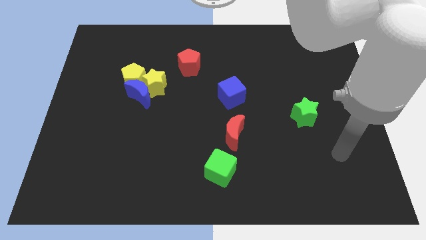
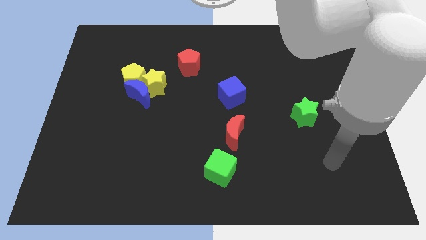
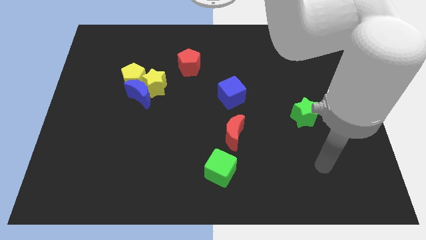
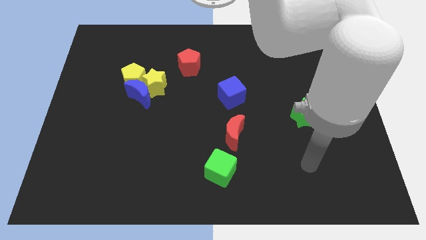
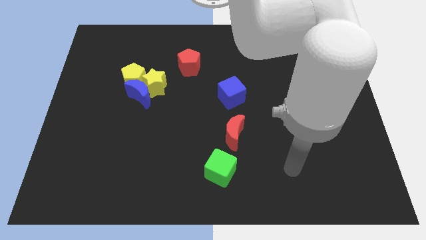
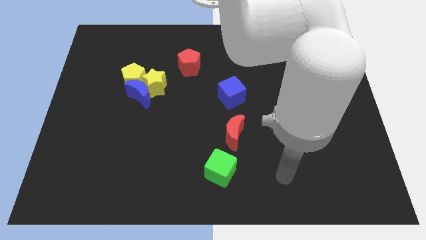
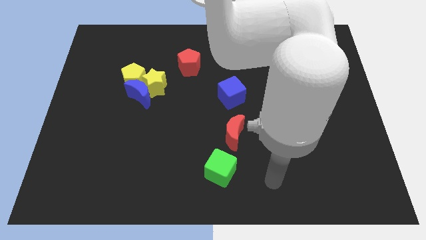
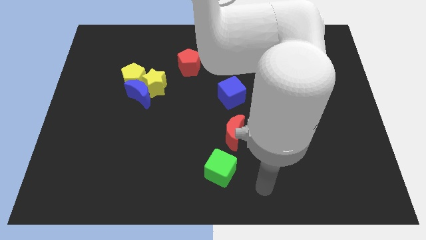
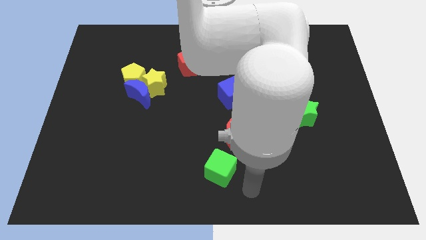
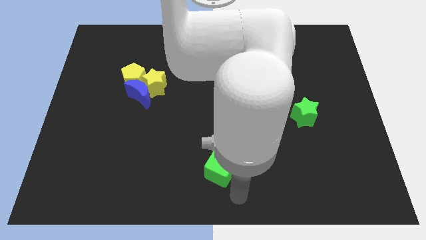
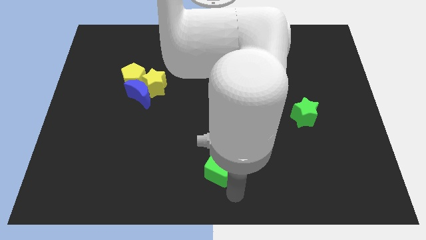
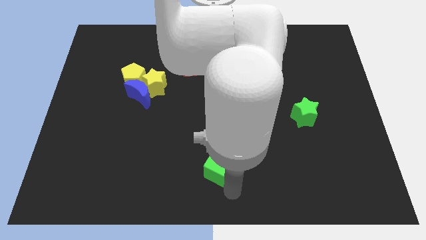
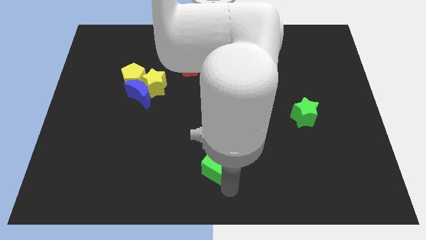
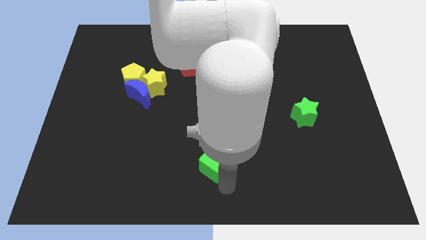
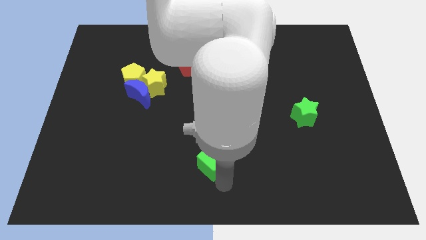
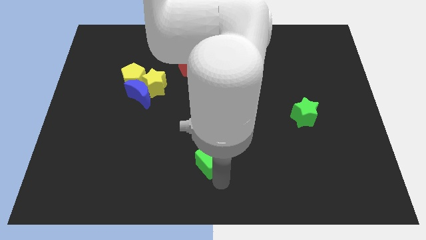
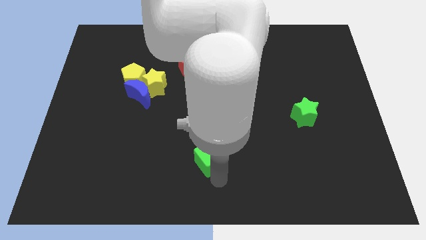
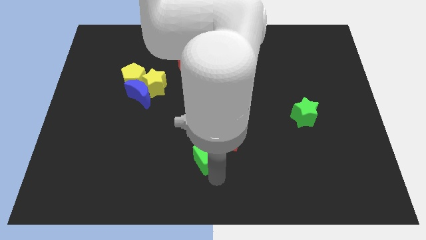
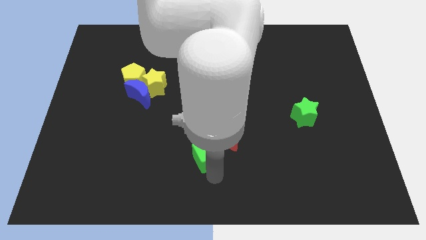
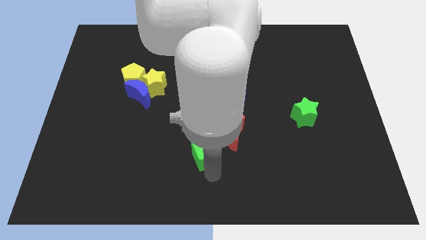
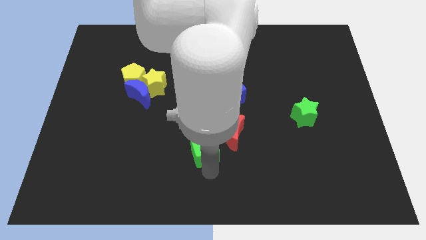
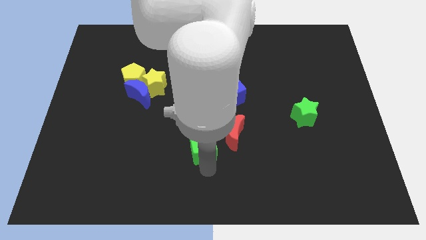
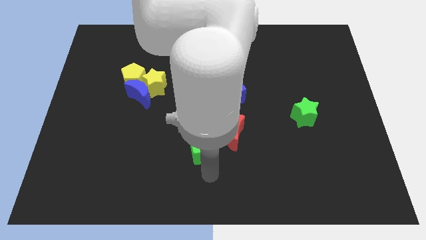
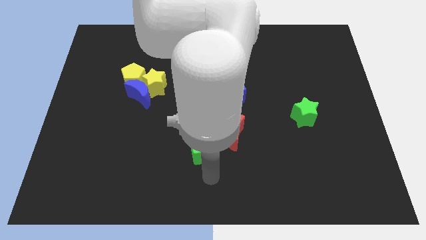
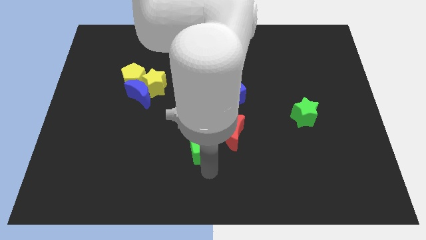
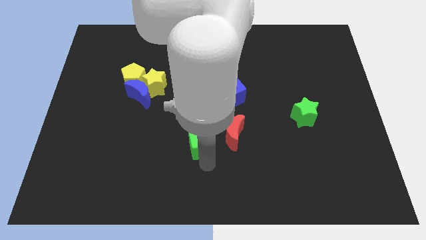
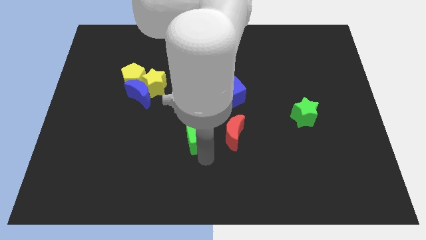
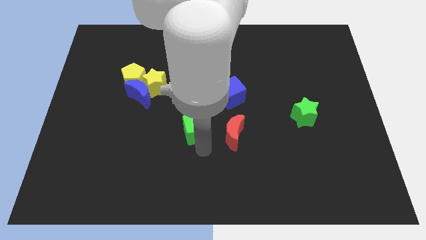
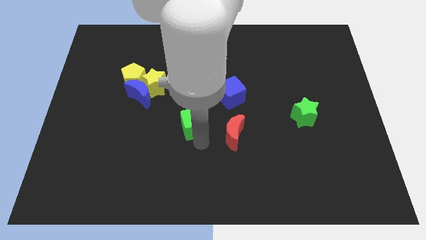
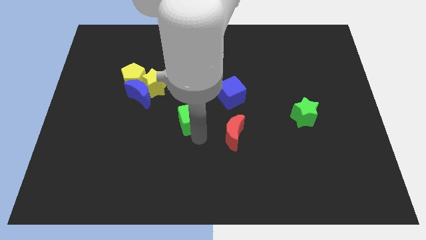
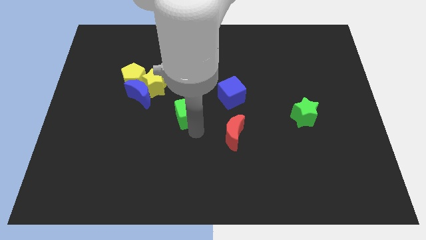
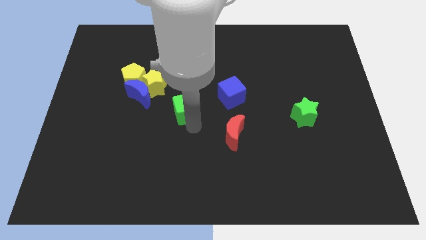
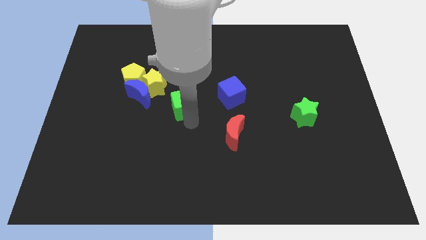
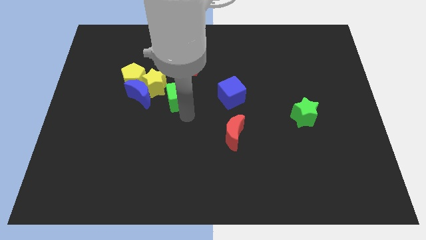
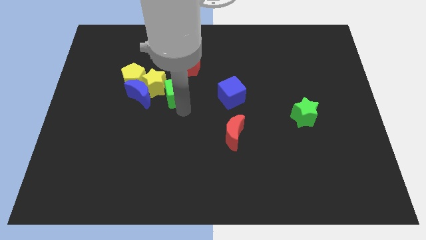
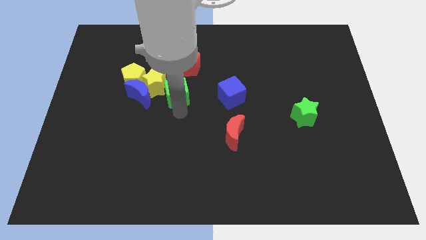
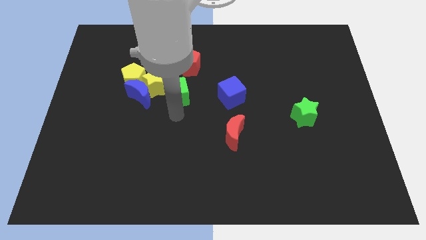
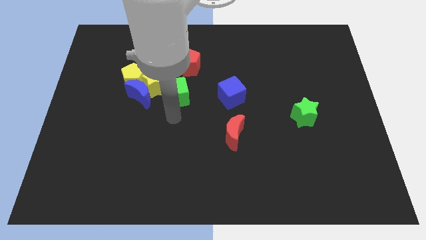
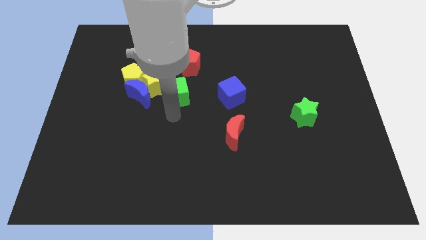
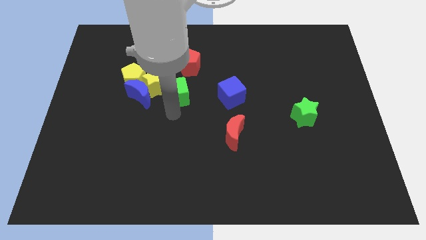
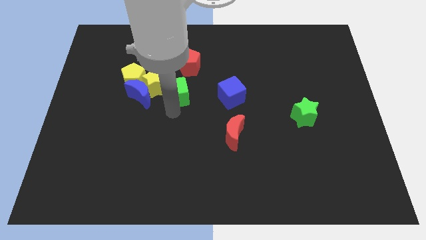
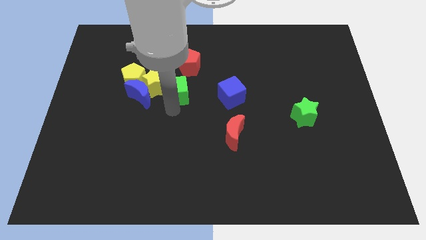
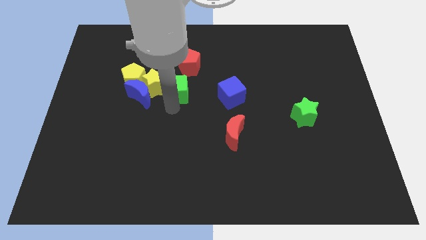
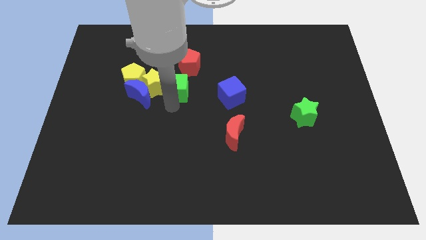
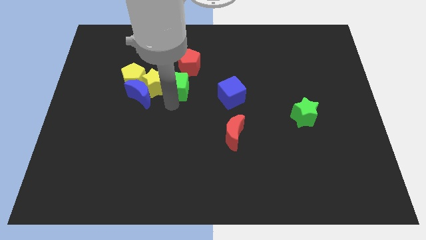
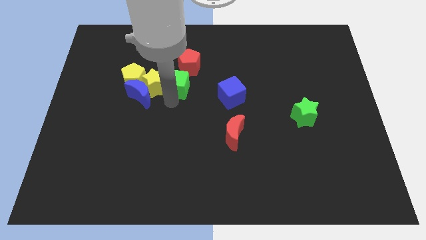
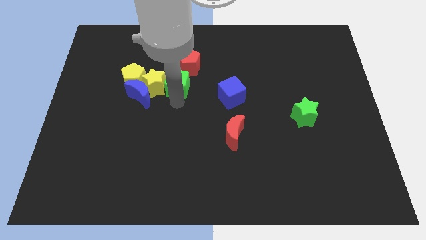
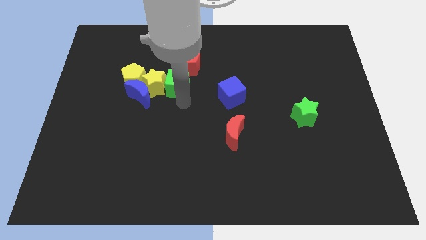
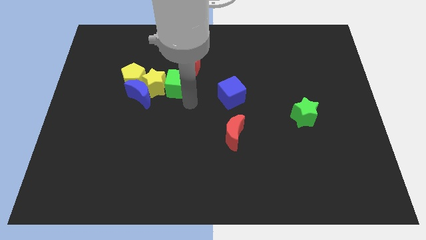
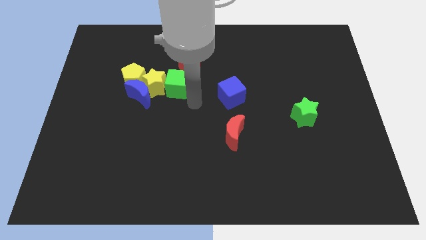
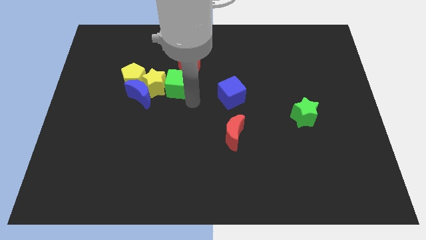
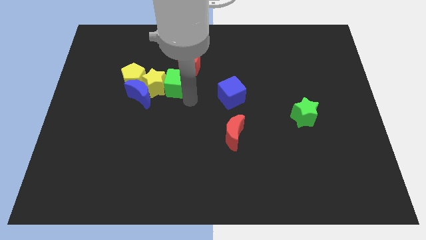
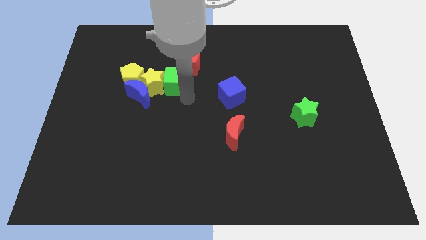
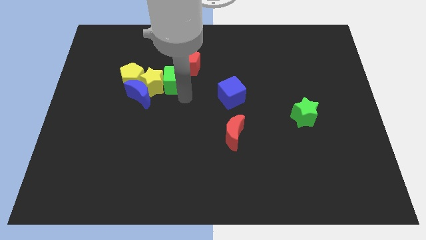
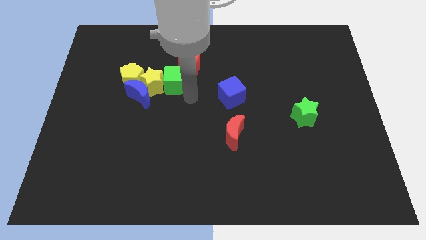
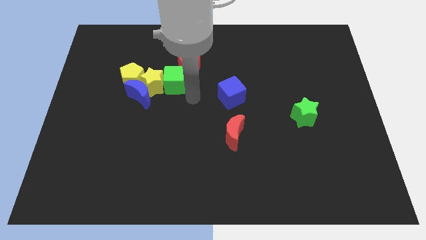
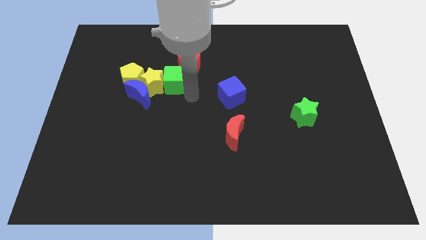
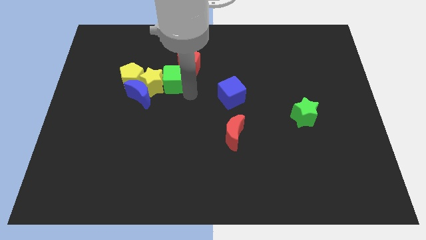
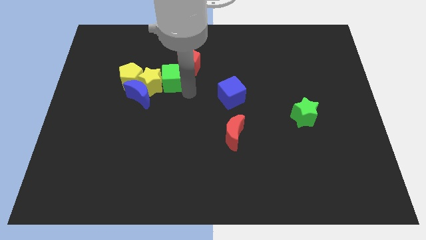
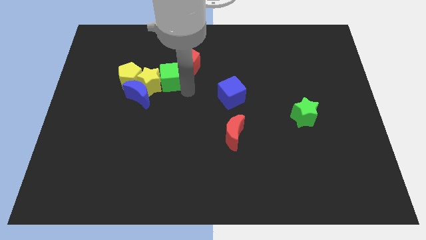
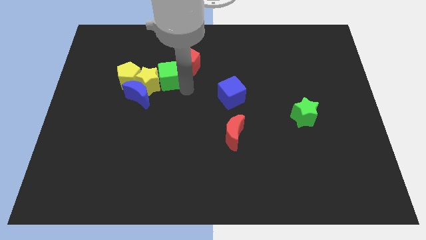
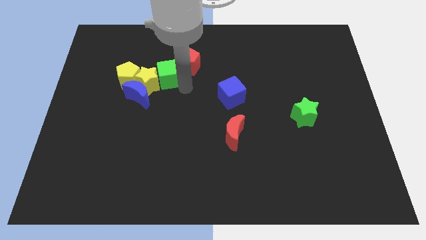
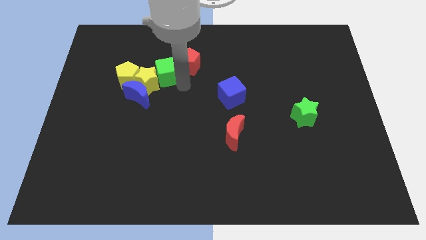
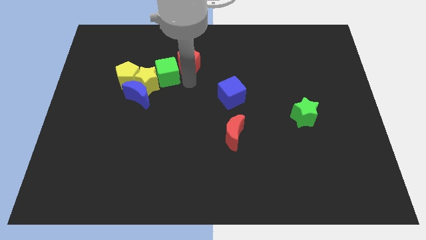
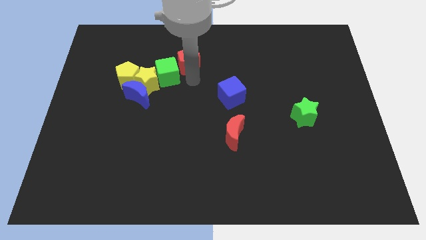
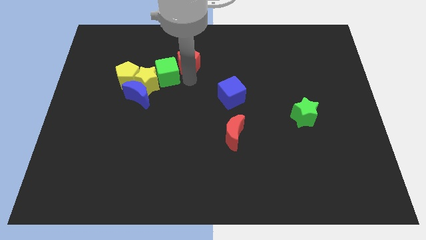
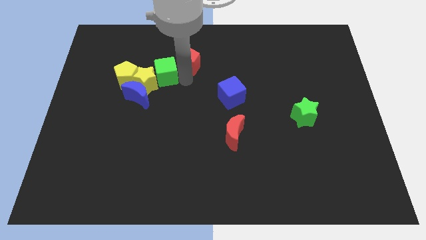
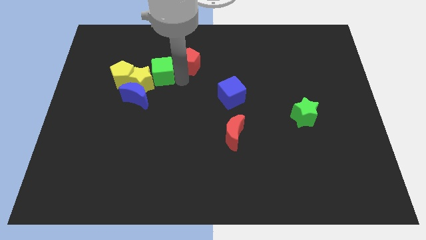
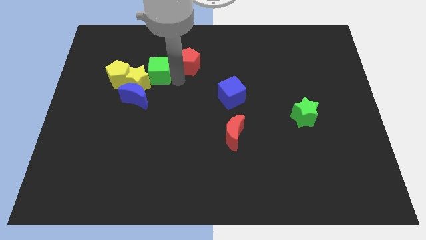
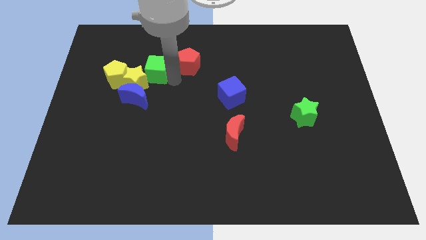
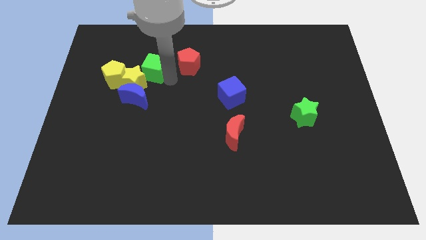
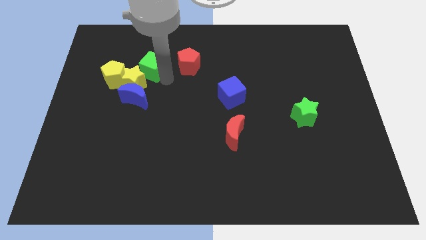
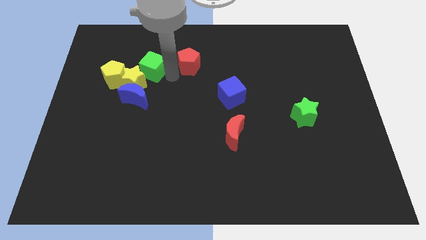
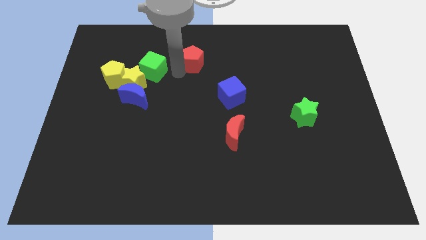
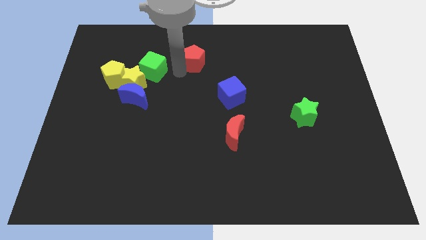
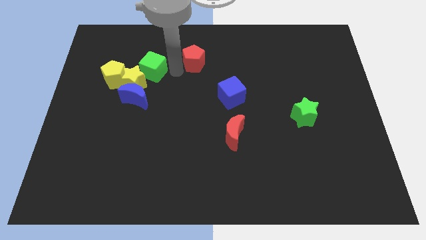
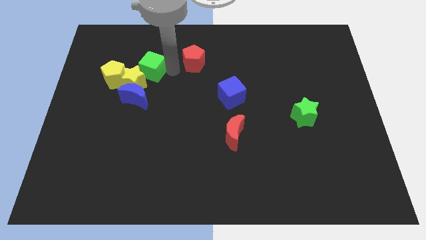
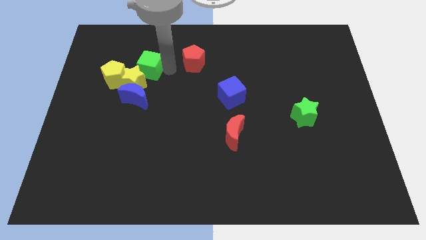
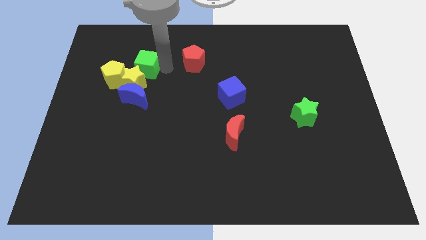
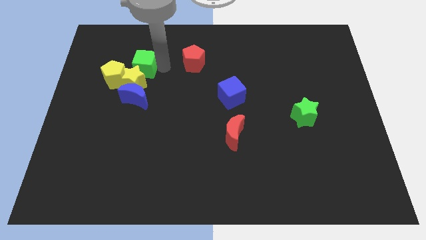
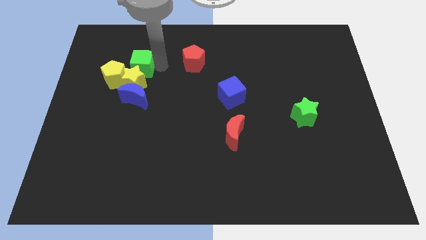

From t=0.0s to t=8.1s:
slide the green cube to the top left of the yellow star
